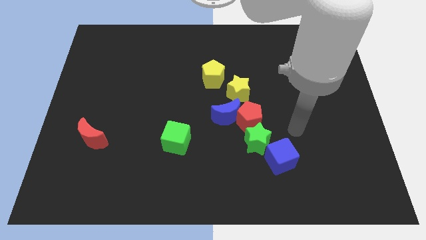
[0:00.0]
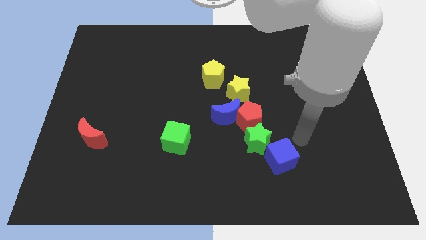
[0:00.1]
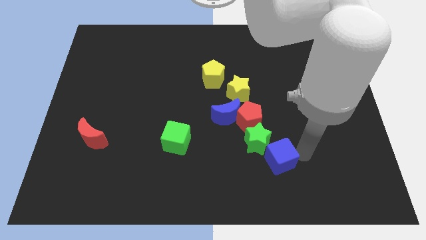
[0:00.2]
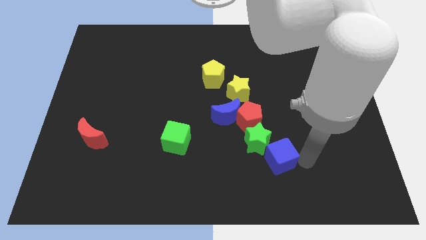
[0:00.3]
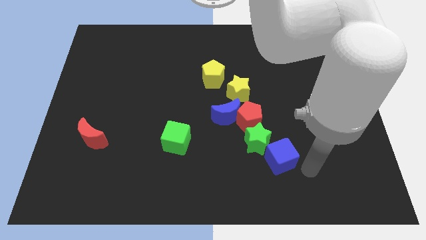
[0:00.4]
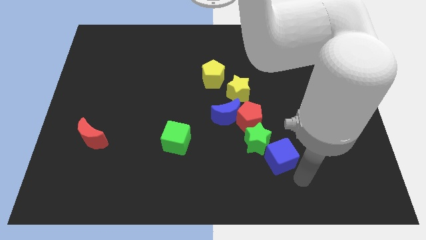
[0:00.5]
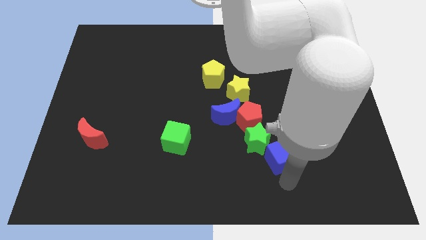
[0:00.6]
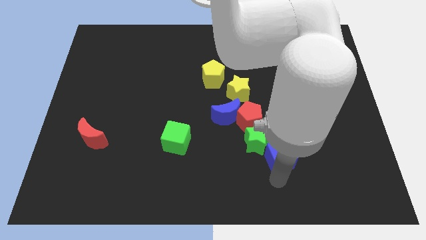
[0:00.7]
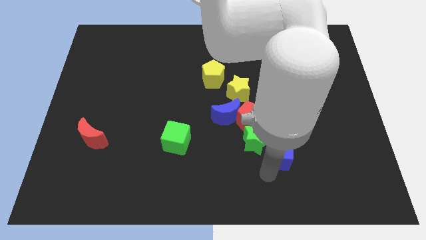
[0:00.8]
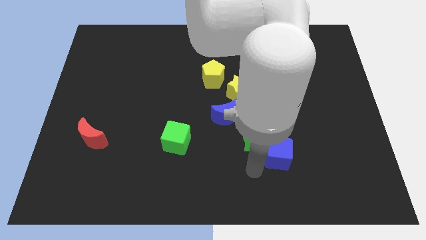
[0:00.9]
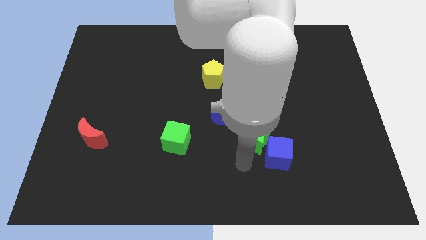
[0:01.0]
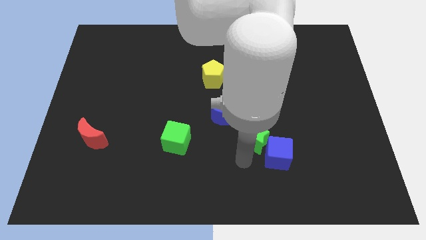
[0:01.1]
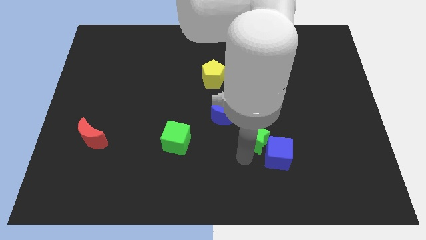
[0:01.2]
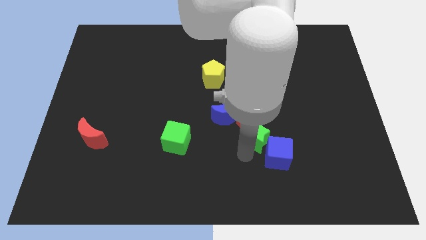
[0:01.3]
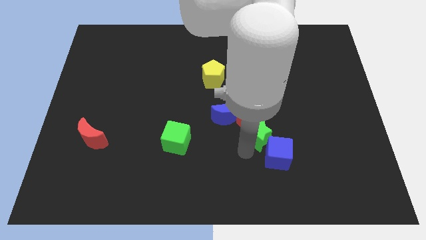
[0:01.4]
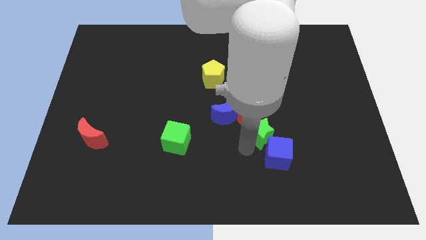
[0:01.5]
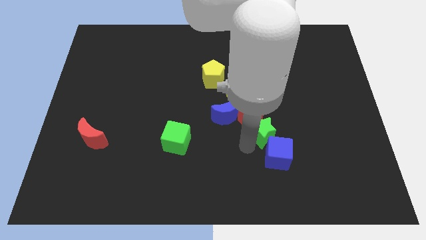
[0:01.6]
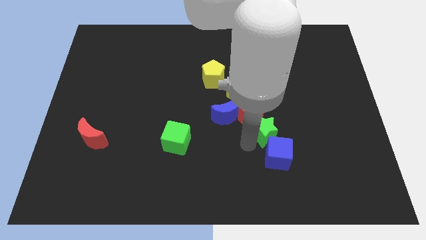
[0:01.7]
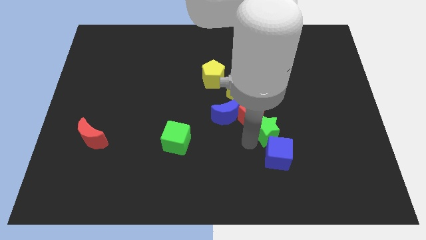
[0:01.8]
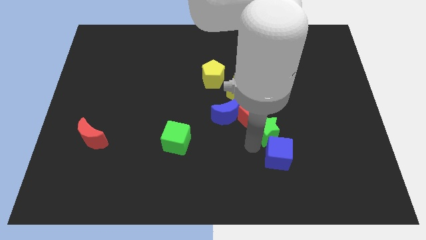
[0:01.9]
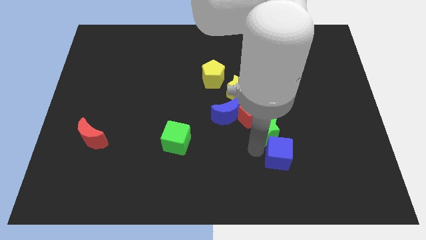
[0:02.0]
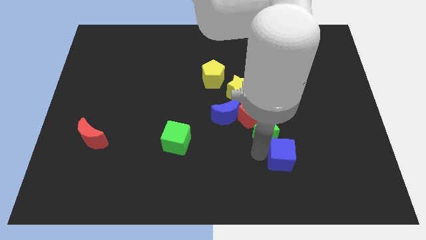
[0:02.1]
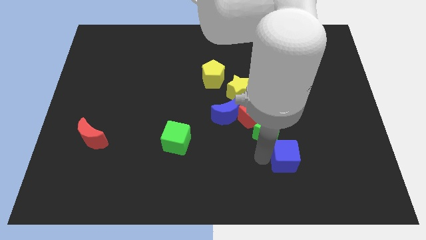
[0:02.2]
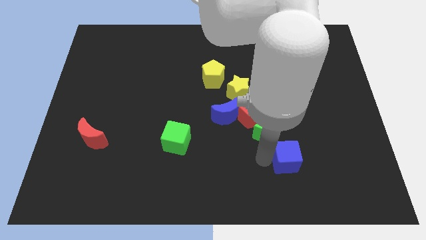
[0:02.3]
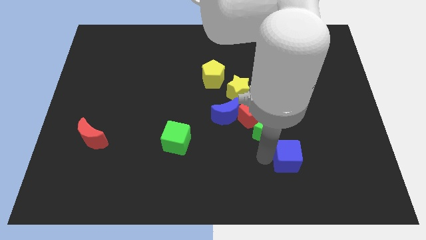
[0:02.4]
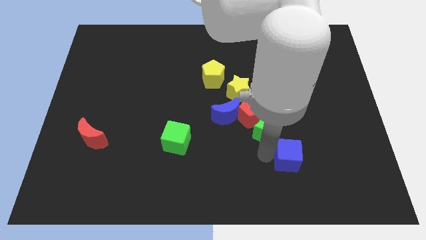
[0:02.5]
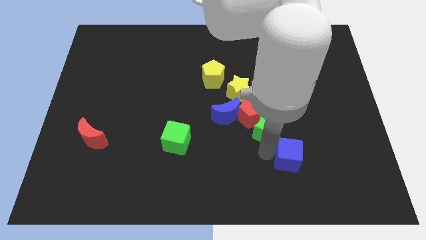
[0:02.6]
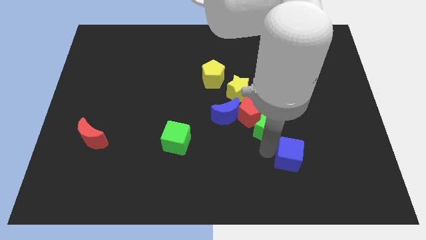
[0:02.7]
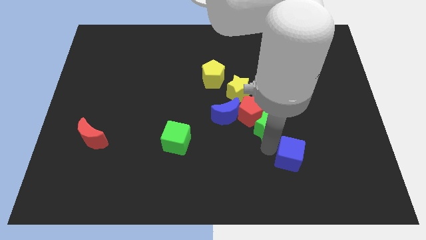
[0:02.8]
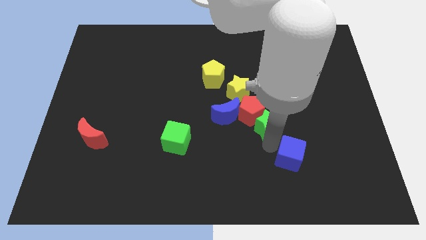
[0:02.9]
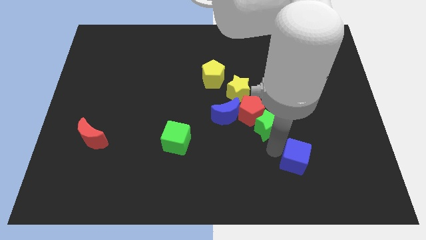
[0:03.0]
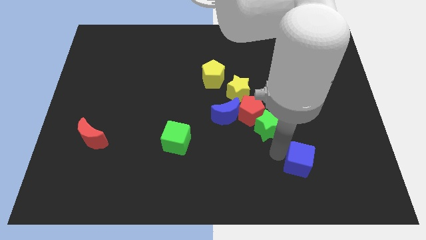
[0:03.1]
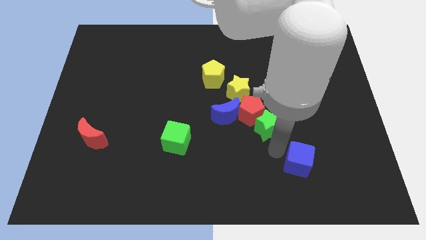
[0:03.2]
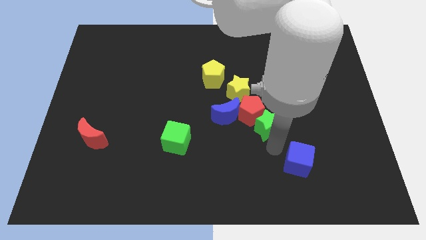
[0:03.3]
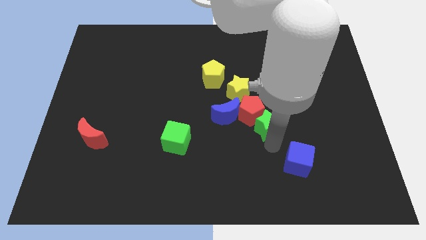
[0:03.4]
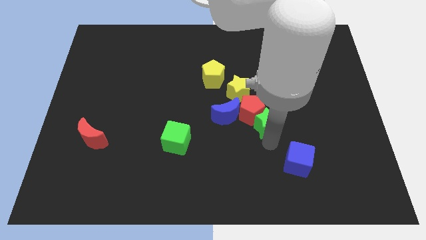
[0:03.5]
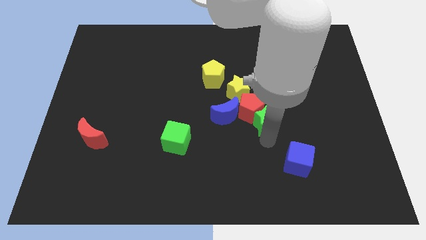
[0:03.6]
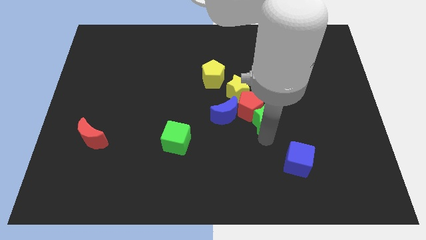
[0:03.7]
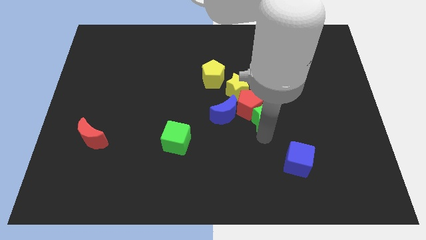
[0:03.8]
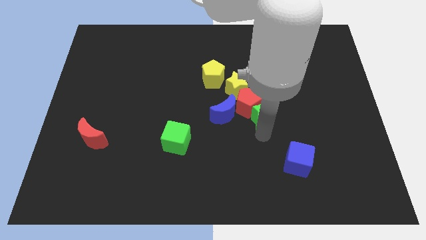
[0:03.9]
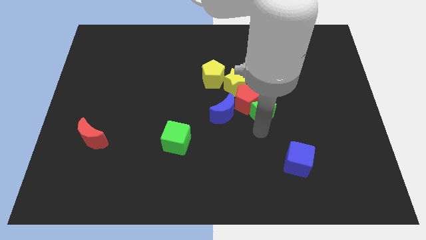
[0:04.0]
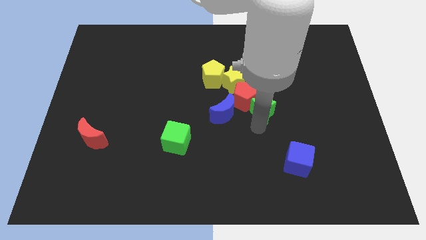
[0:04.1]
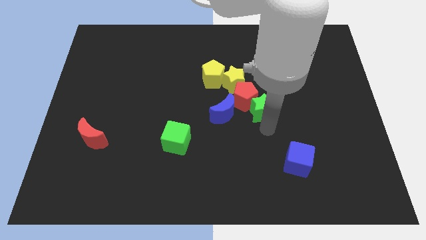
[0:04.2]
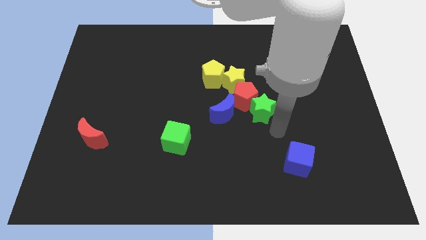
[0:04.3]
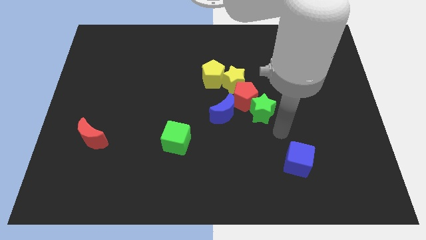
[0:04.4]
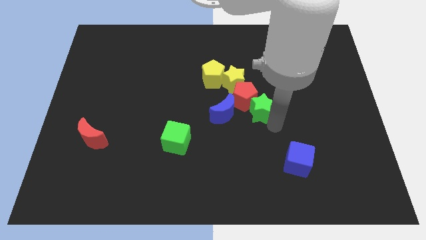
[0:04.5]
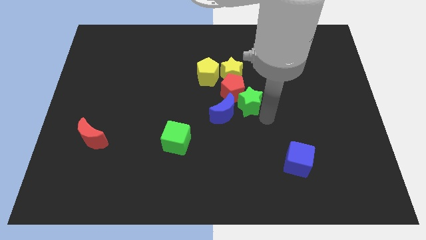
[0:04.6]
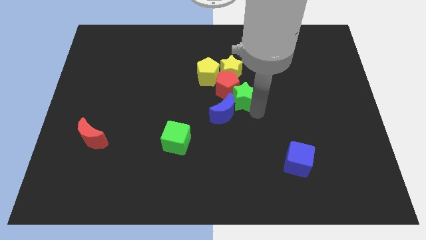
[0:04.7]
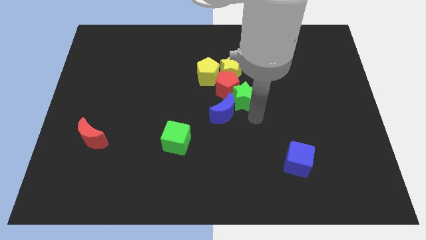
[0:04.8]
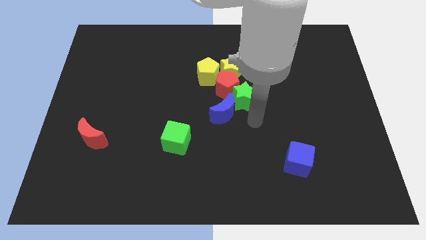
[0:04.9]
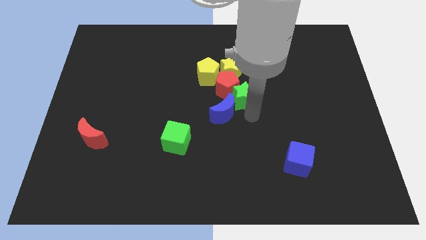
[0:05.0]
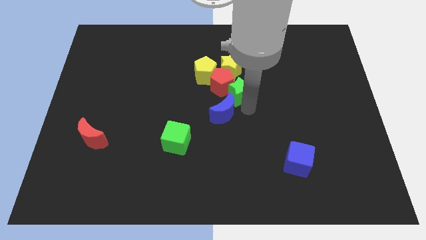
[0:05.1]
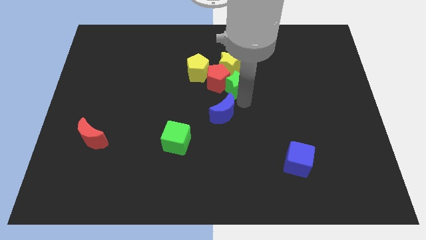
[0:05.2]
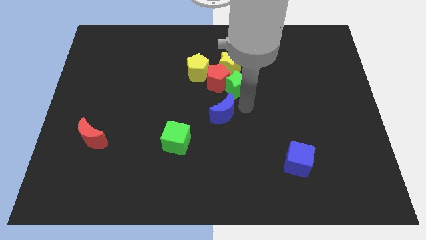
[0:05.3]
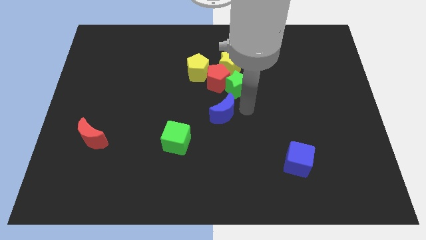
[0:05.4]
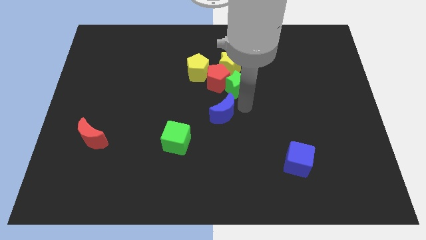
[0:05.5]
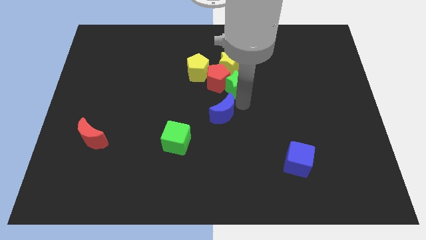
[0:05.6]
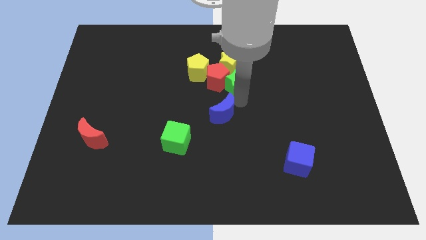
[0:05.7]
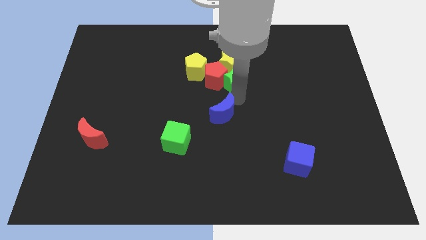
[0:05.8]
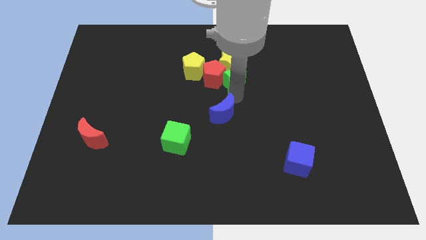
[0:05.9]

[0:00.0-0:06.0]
push the green star close to the yellow star
